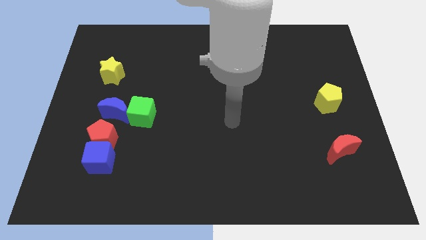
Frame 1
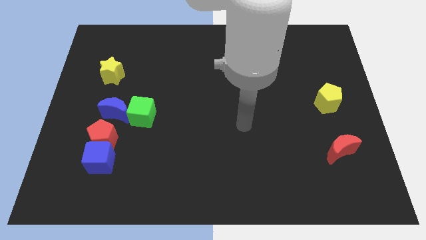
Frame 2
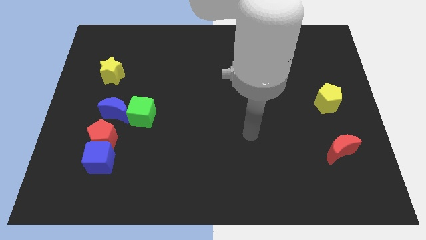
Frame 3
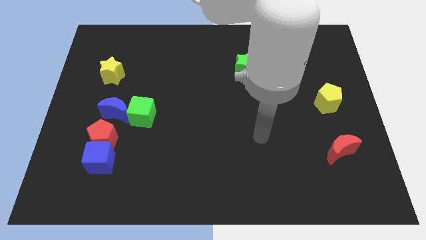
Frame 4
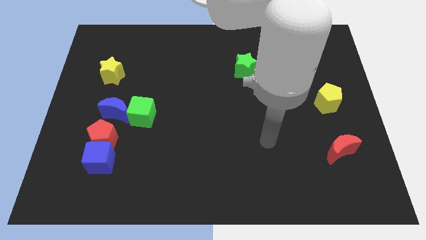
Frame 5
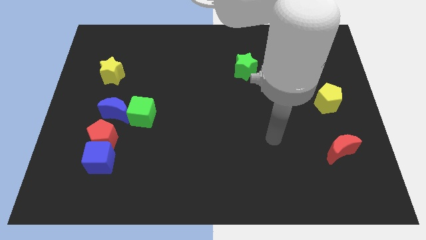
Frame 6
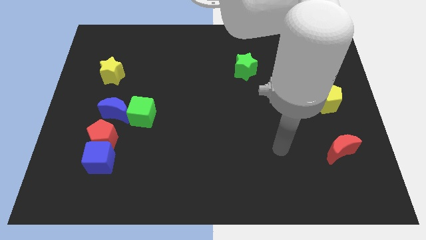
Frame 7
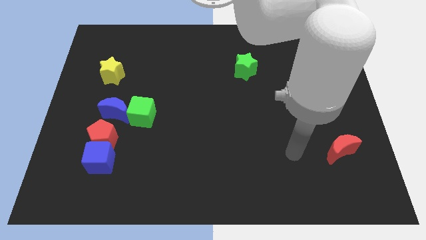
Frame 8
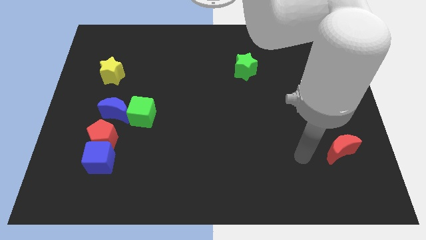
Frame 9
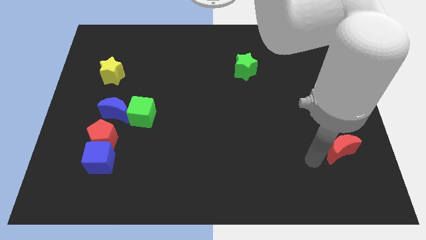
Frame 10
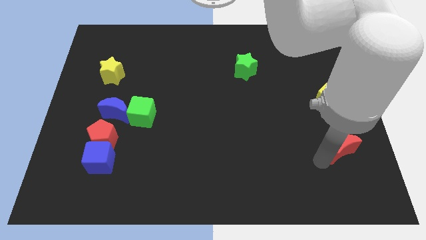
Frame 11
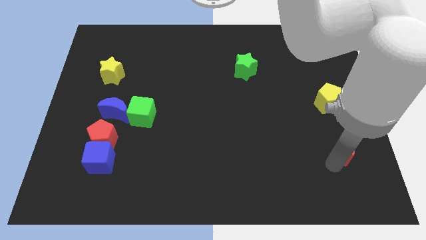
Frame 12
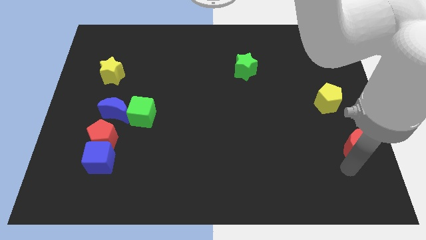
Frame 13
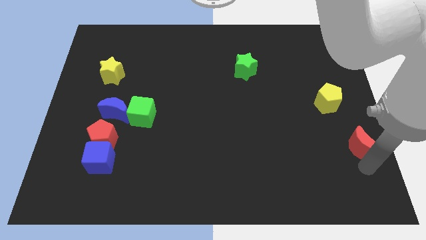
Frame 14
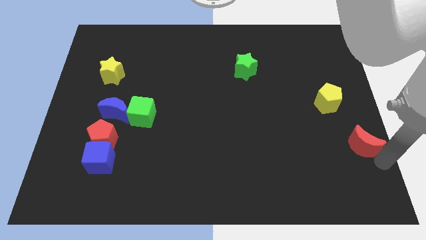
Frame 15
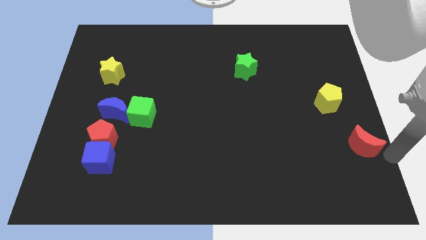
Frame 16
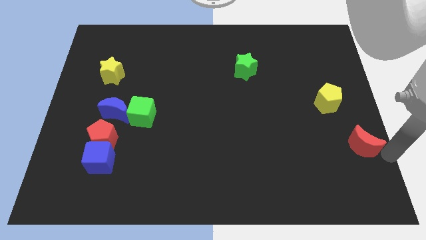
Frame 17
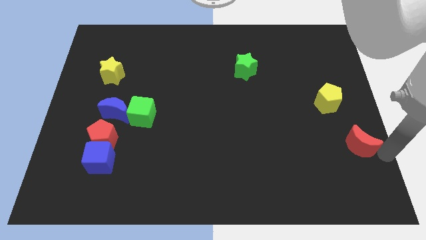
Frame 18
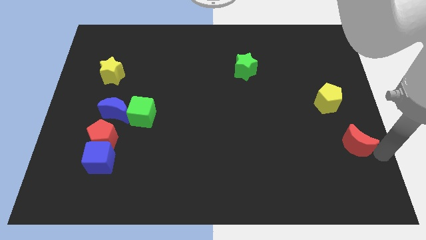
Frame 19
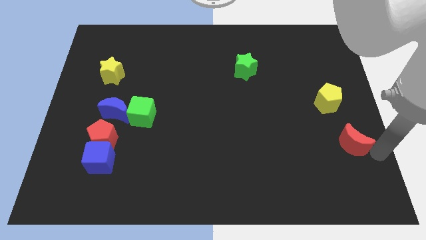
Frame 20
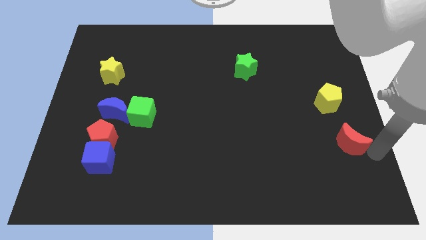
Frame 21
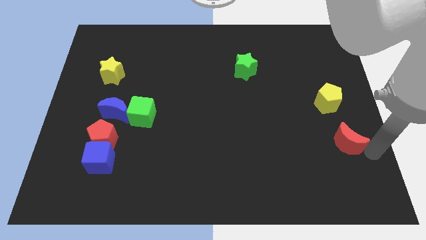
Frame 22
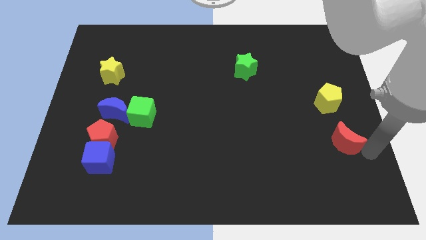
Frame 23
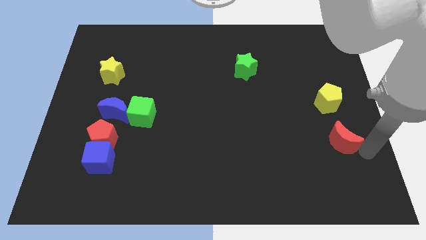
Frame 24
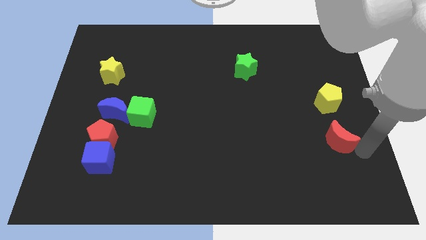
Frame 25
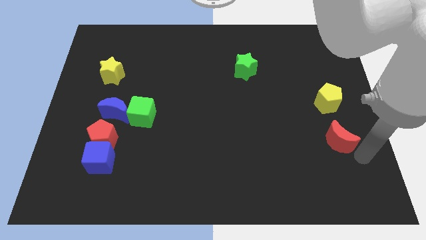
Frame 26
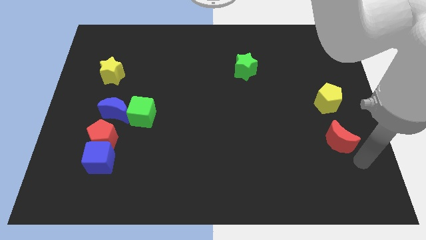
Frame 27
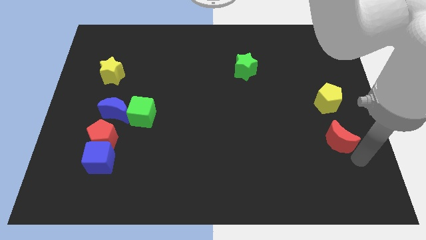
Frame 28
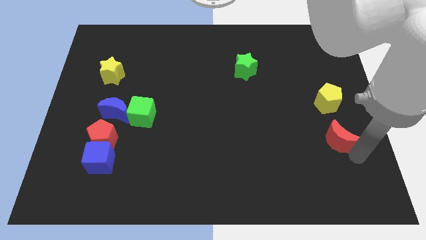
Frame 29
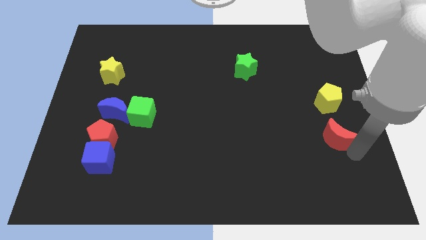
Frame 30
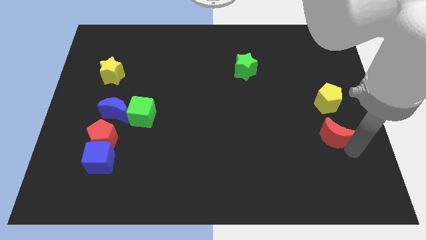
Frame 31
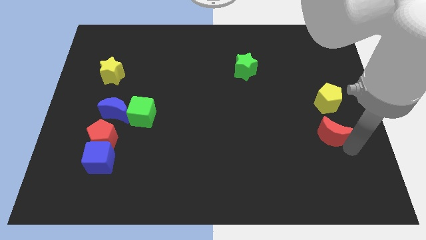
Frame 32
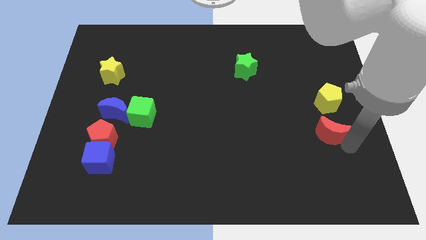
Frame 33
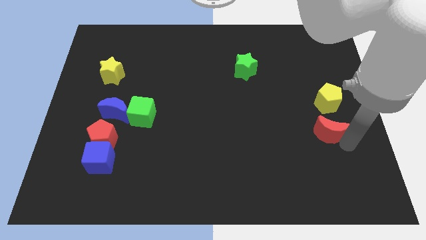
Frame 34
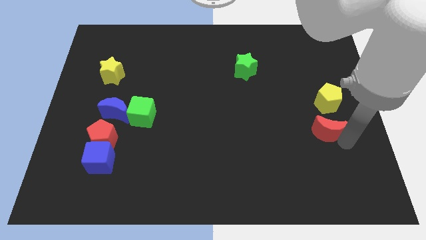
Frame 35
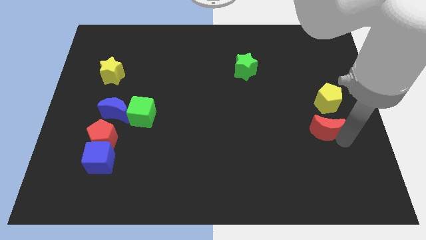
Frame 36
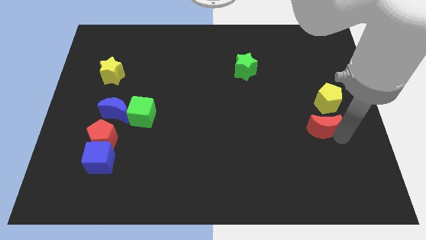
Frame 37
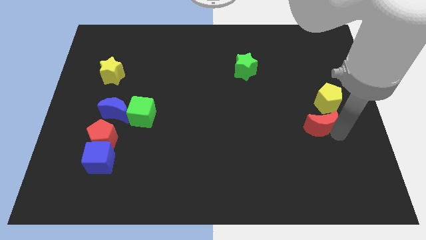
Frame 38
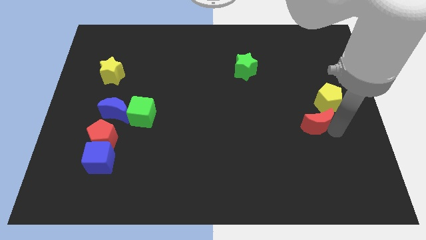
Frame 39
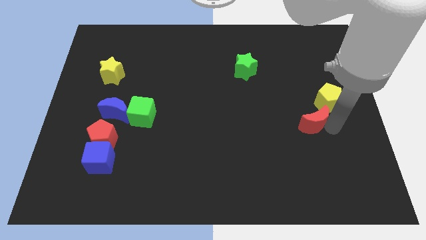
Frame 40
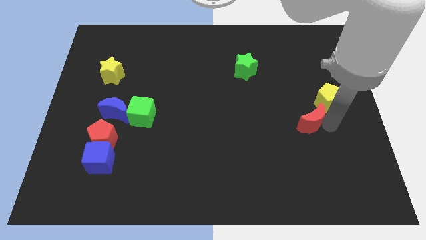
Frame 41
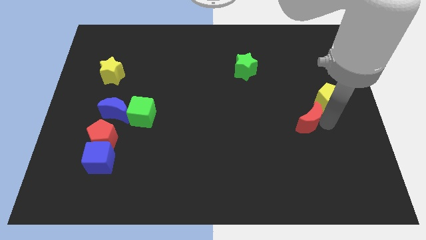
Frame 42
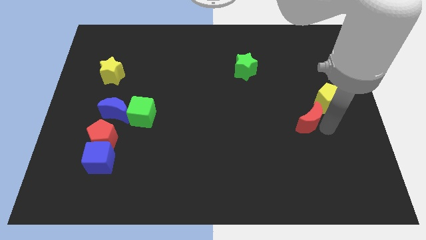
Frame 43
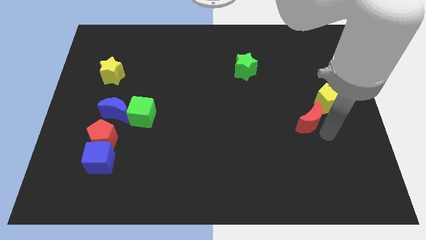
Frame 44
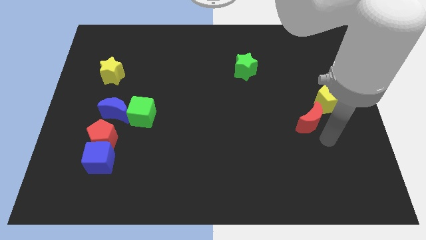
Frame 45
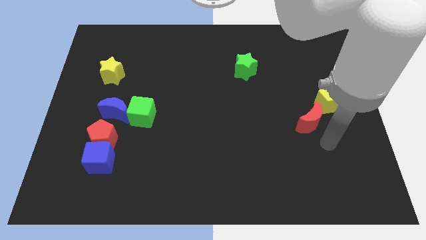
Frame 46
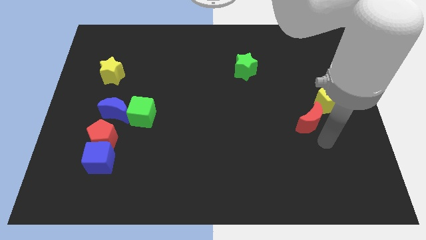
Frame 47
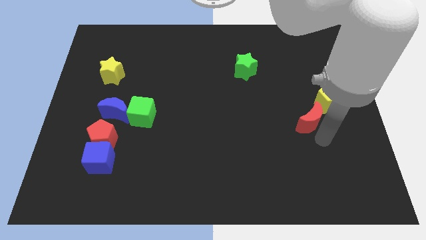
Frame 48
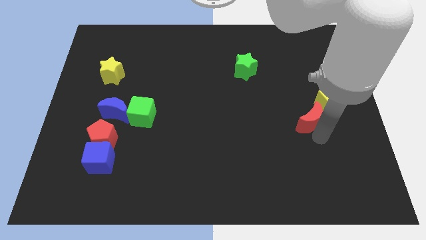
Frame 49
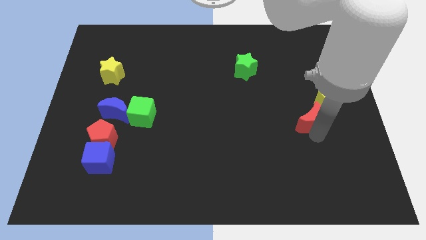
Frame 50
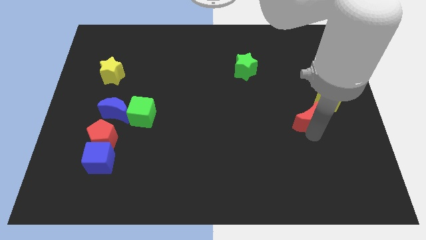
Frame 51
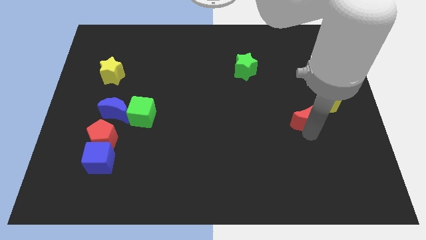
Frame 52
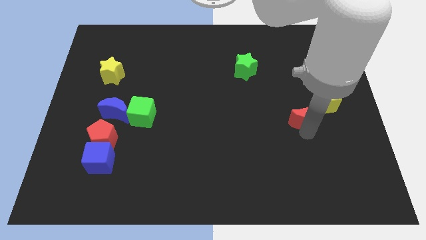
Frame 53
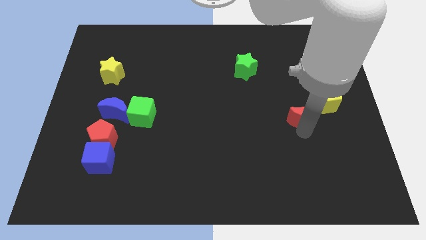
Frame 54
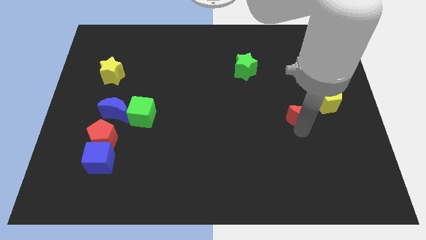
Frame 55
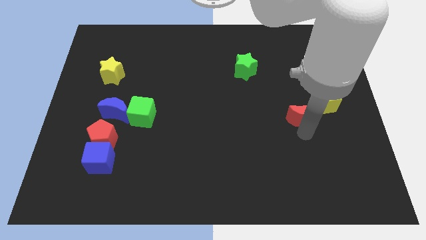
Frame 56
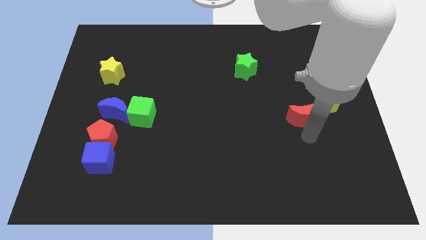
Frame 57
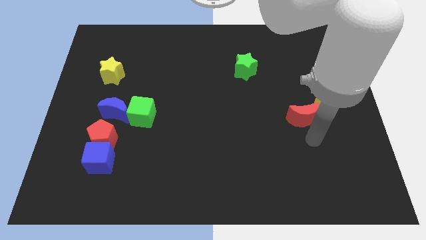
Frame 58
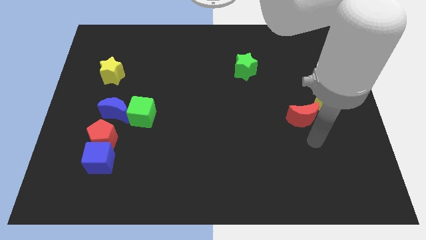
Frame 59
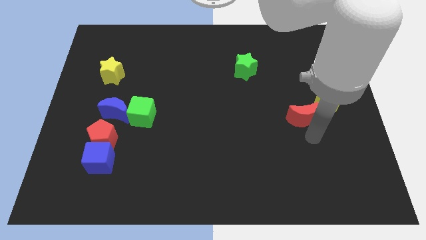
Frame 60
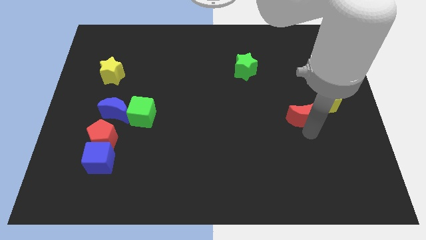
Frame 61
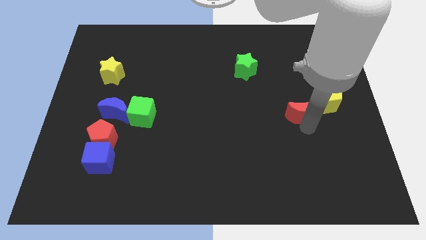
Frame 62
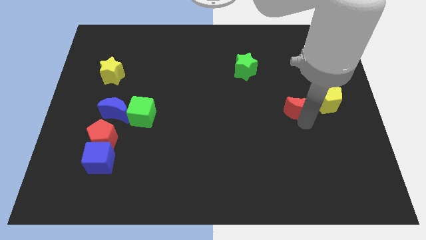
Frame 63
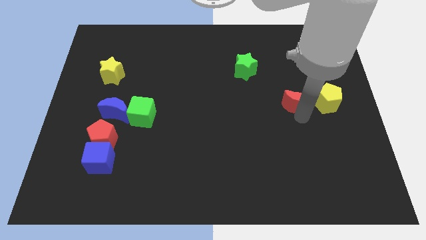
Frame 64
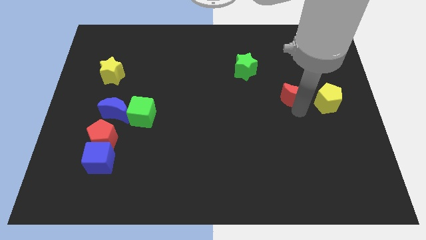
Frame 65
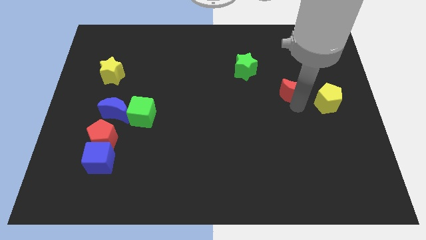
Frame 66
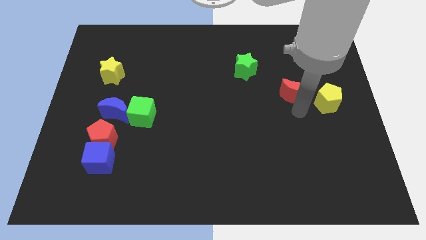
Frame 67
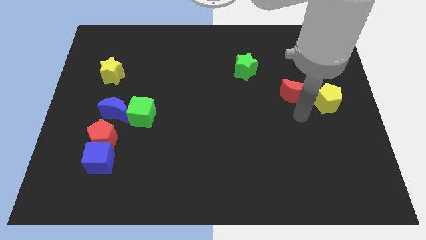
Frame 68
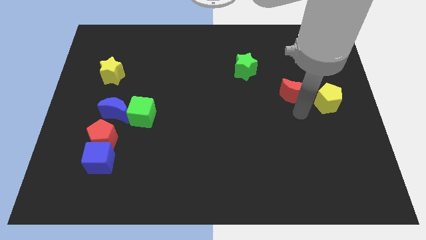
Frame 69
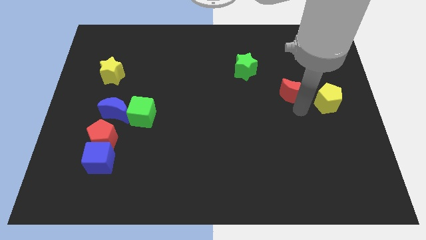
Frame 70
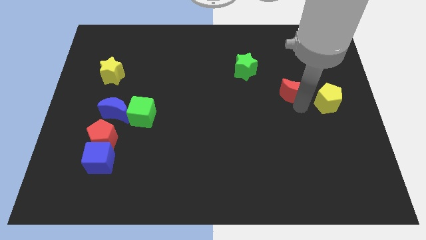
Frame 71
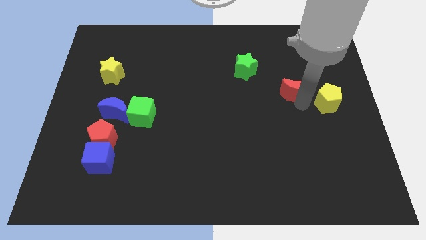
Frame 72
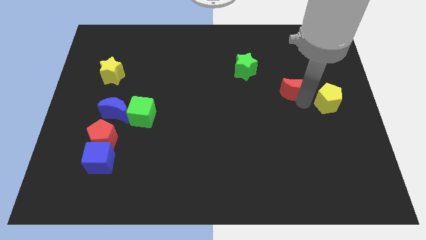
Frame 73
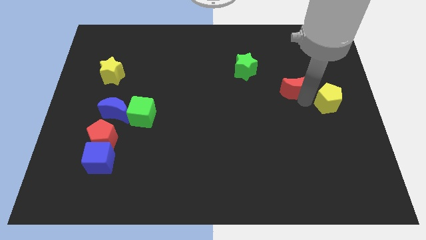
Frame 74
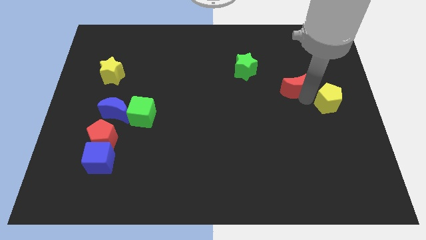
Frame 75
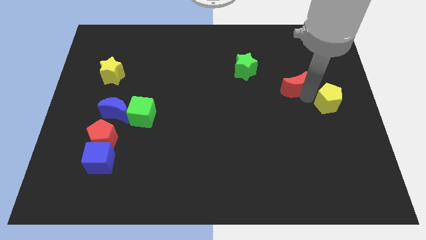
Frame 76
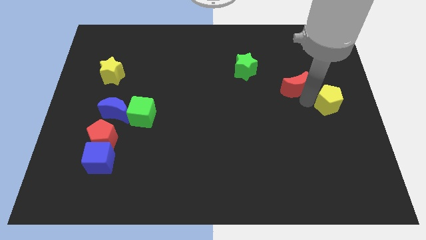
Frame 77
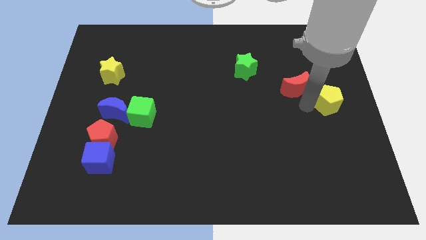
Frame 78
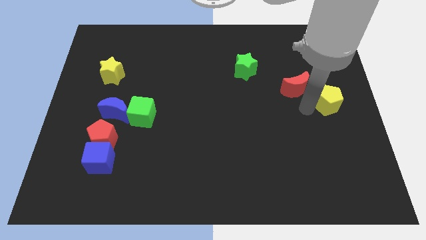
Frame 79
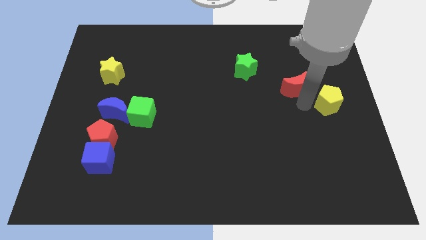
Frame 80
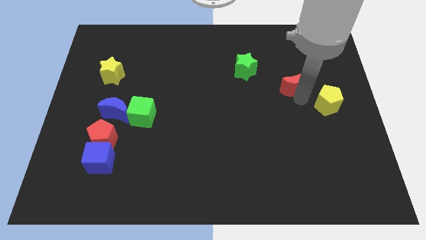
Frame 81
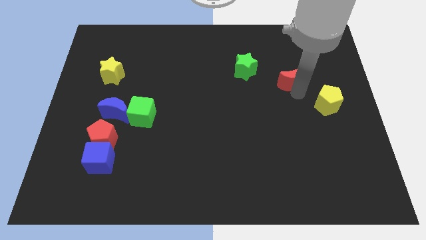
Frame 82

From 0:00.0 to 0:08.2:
move the red moon to the right side of the green star
